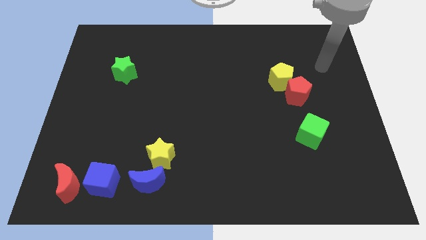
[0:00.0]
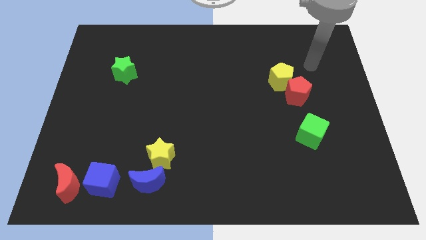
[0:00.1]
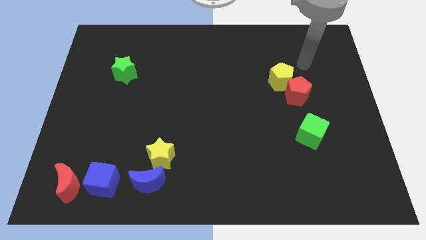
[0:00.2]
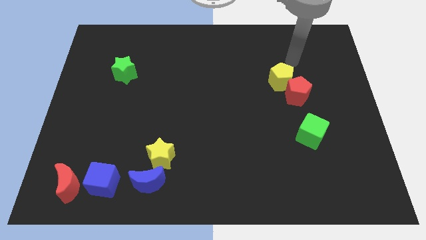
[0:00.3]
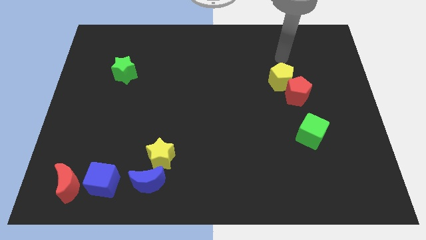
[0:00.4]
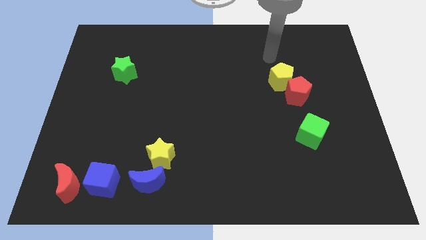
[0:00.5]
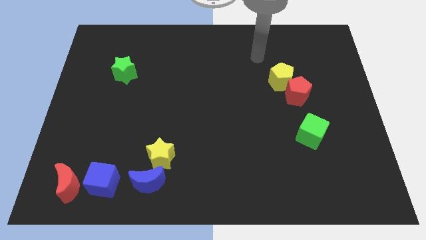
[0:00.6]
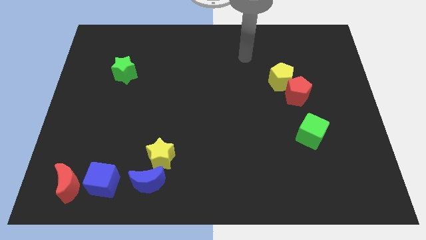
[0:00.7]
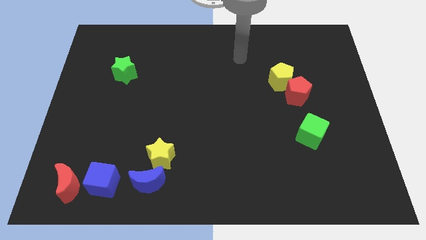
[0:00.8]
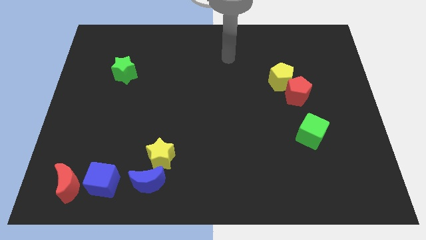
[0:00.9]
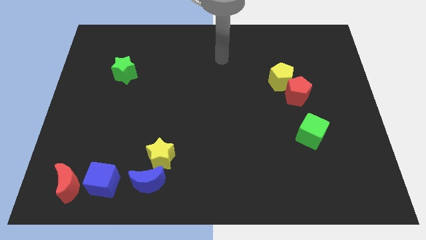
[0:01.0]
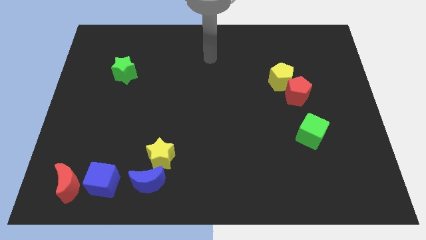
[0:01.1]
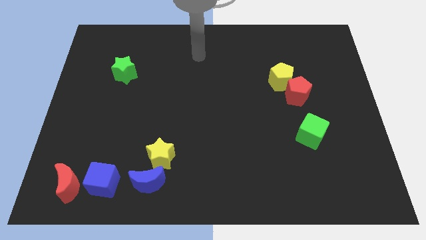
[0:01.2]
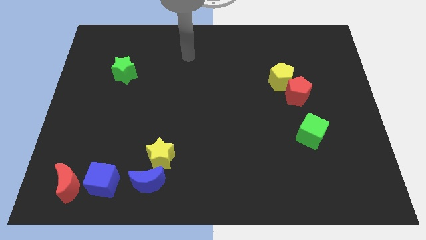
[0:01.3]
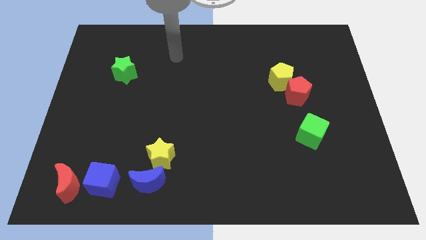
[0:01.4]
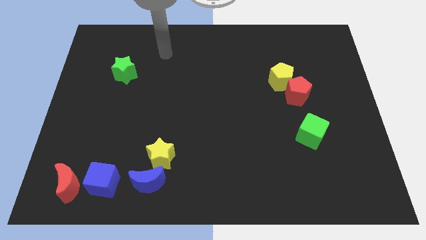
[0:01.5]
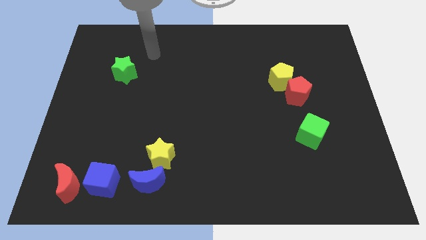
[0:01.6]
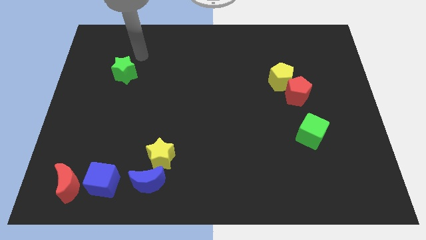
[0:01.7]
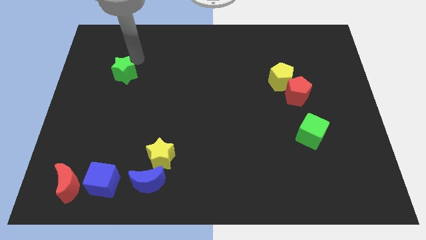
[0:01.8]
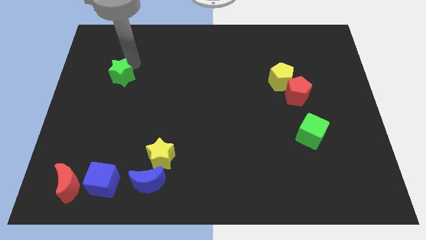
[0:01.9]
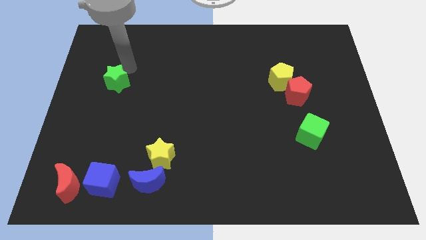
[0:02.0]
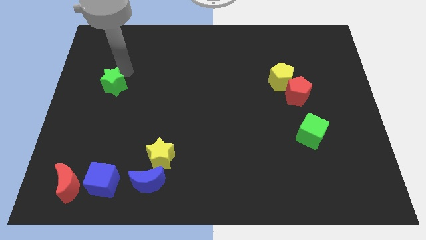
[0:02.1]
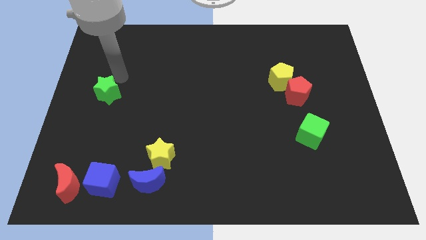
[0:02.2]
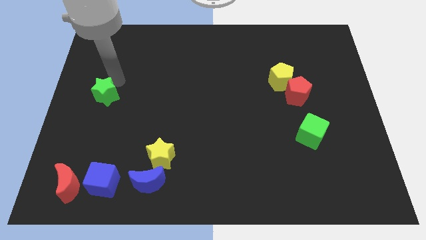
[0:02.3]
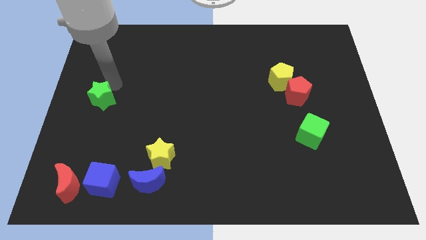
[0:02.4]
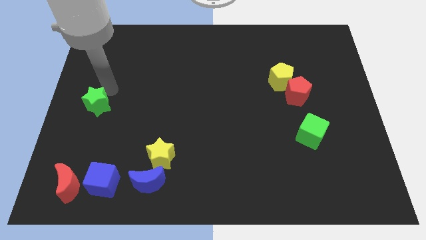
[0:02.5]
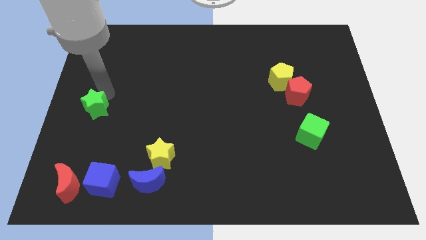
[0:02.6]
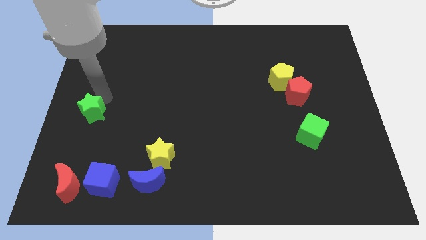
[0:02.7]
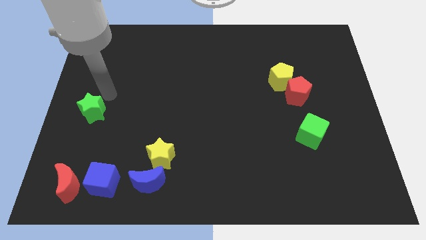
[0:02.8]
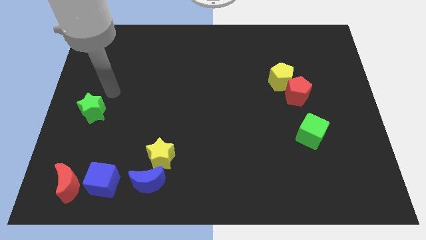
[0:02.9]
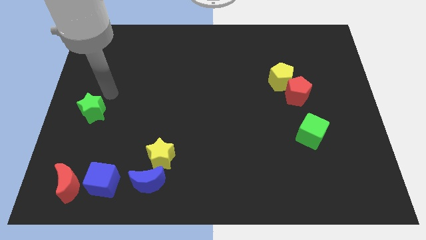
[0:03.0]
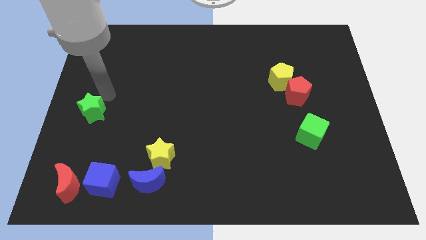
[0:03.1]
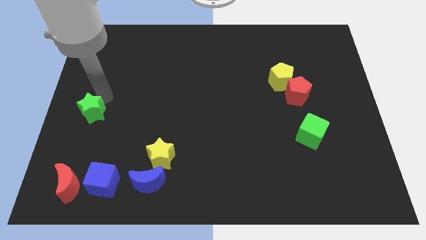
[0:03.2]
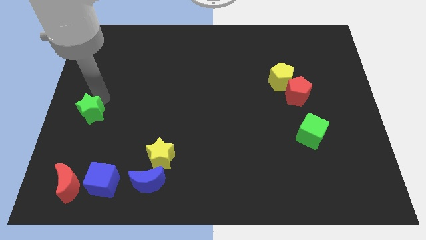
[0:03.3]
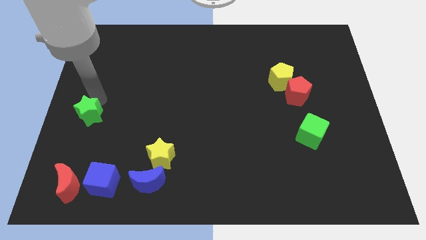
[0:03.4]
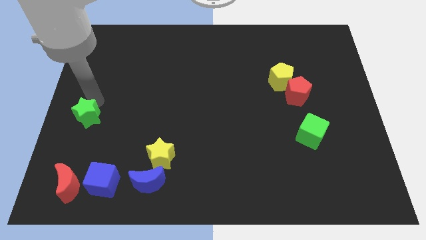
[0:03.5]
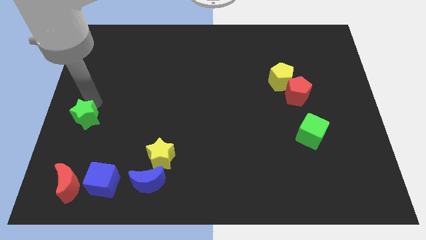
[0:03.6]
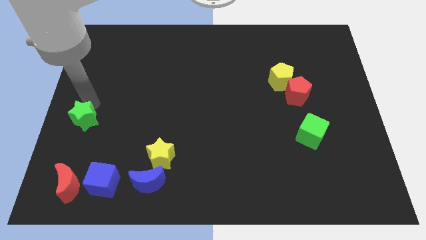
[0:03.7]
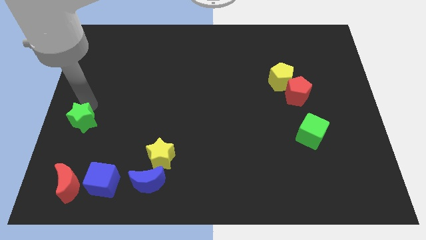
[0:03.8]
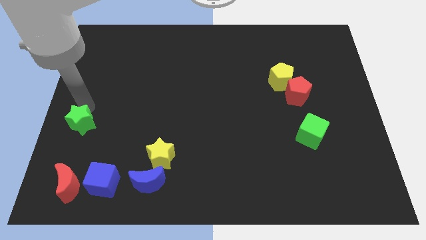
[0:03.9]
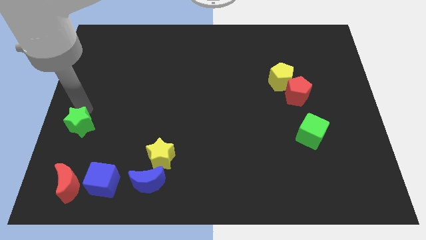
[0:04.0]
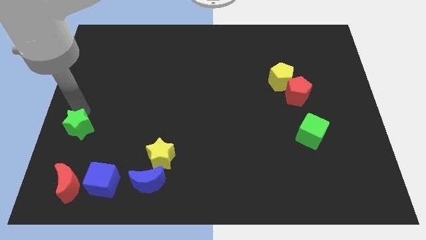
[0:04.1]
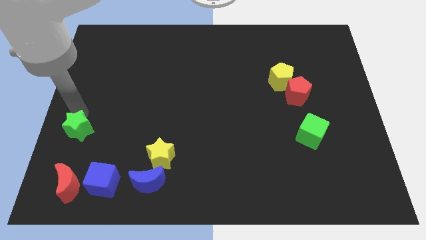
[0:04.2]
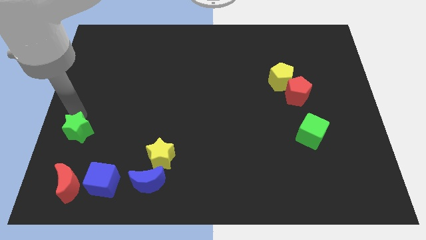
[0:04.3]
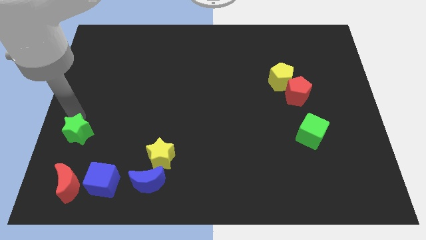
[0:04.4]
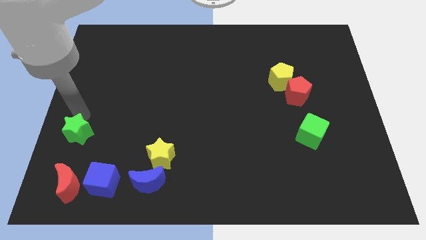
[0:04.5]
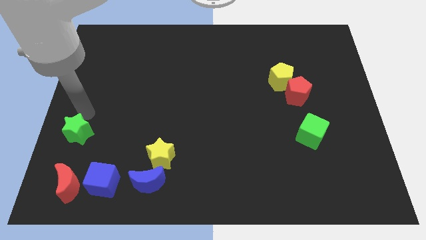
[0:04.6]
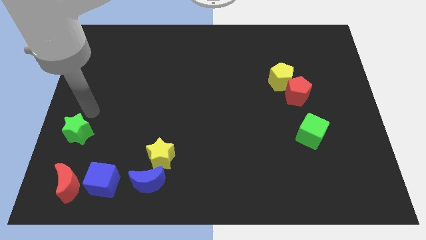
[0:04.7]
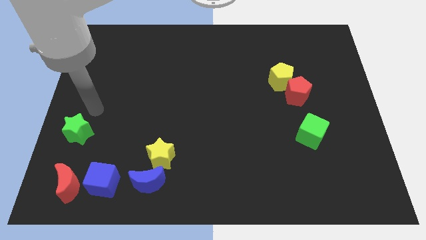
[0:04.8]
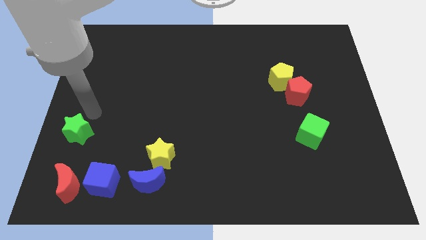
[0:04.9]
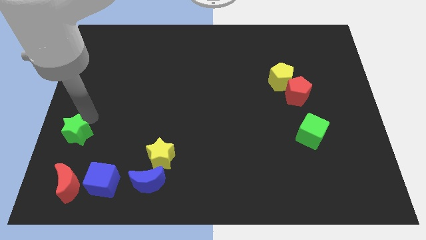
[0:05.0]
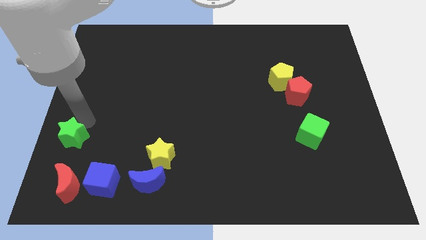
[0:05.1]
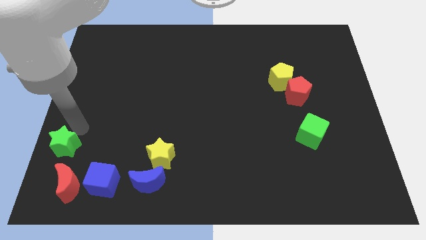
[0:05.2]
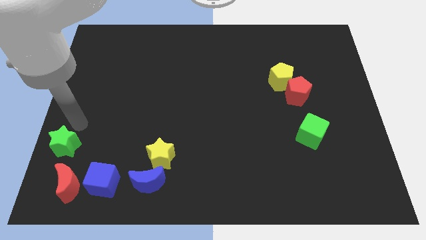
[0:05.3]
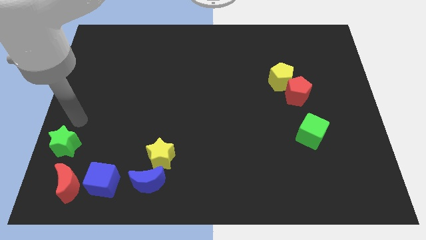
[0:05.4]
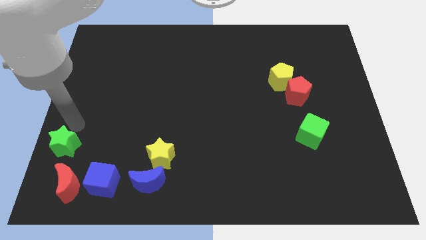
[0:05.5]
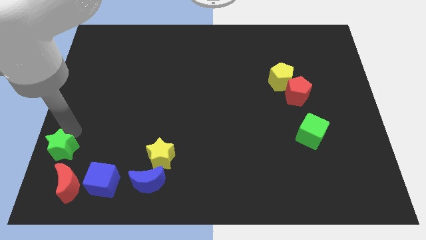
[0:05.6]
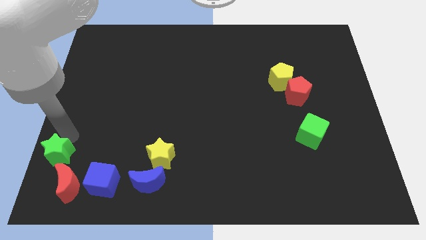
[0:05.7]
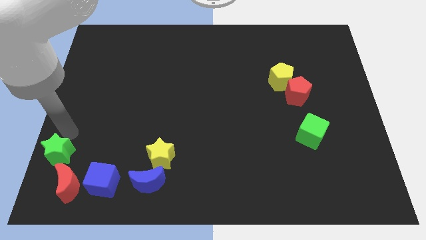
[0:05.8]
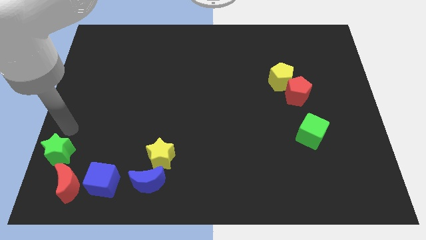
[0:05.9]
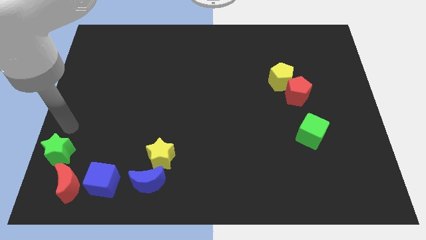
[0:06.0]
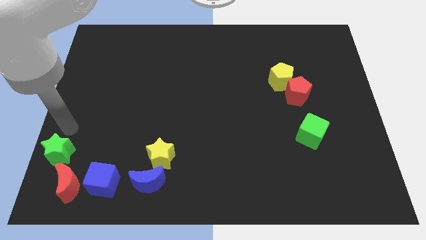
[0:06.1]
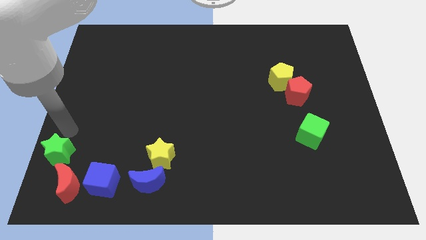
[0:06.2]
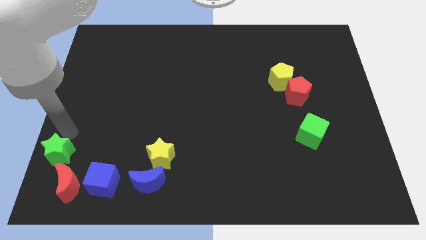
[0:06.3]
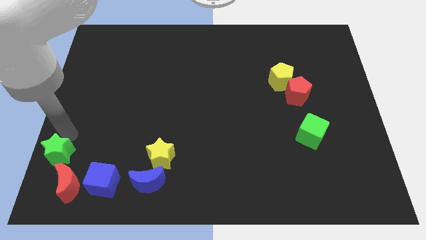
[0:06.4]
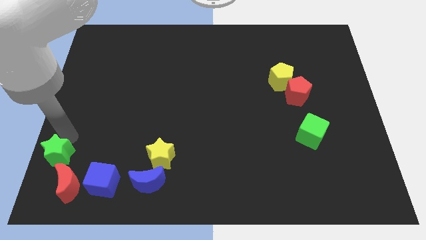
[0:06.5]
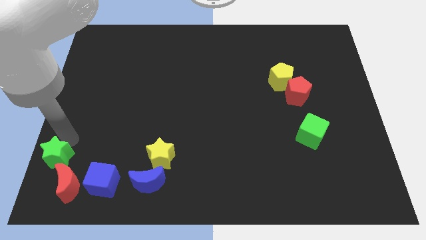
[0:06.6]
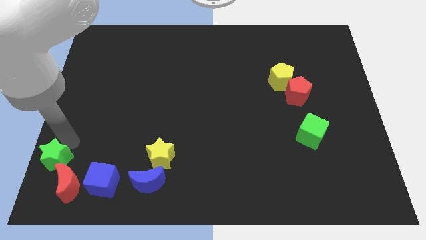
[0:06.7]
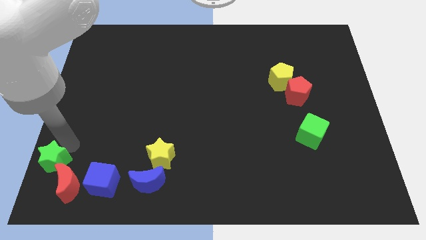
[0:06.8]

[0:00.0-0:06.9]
slide the green star to the bottom left corner

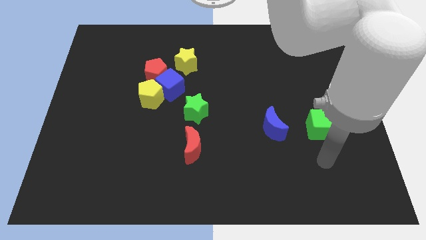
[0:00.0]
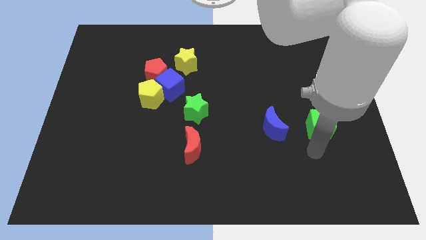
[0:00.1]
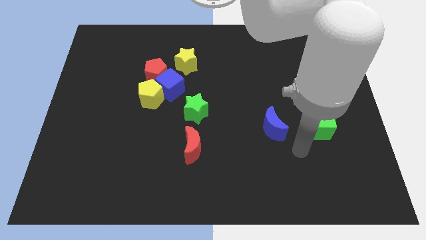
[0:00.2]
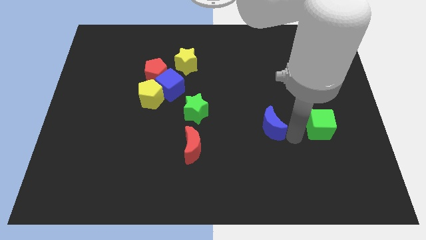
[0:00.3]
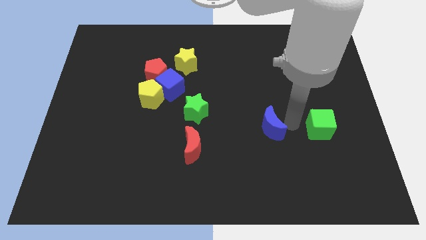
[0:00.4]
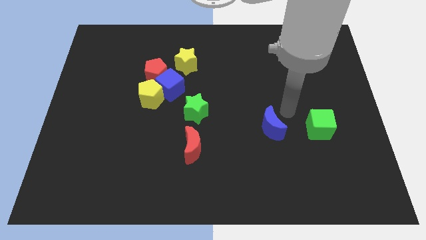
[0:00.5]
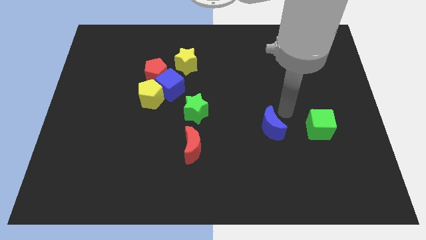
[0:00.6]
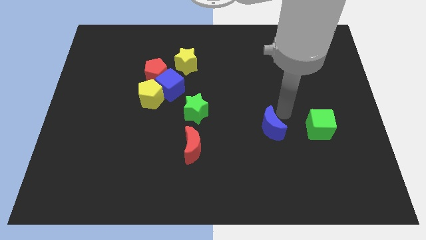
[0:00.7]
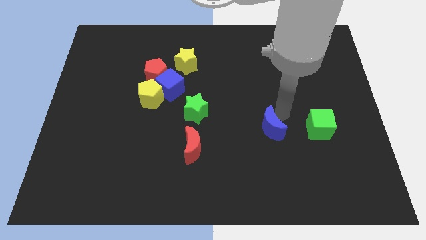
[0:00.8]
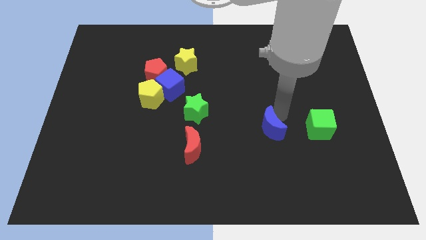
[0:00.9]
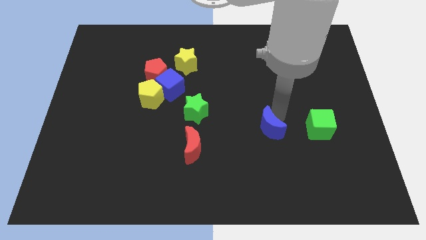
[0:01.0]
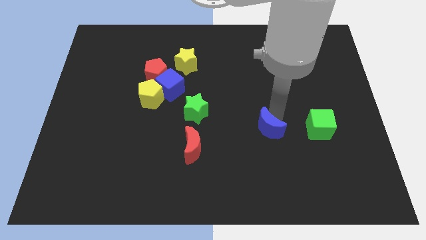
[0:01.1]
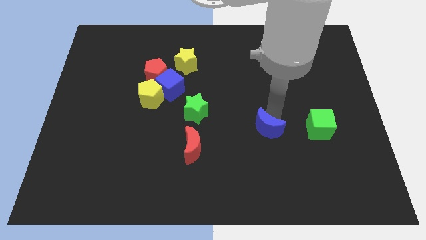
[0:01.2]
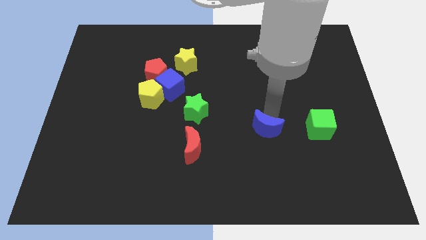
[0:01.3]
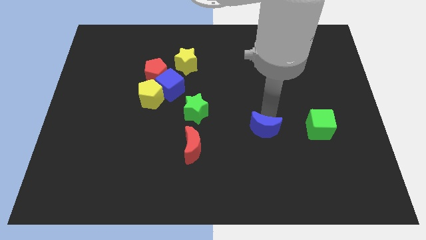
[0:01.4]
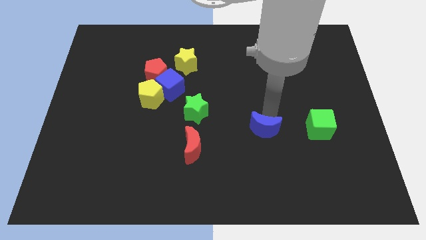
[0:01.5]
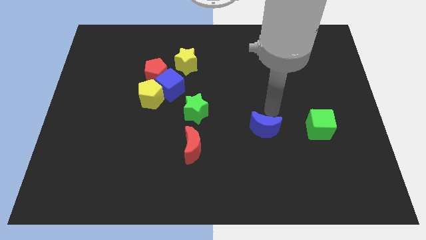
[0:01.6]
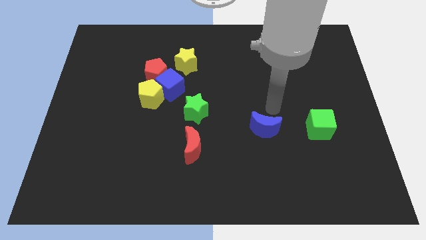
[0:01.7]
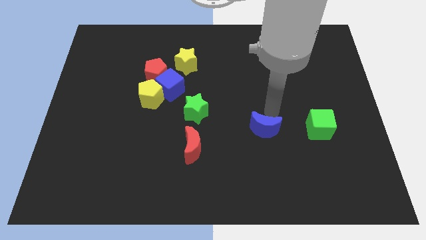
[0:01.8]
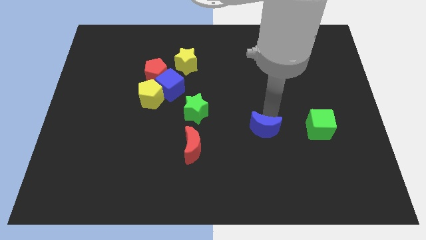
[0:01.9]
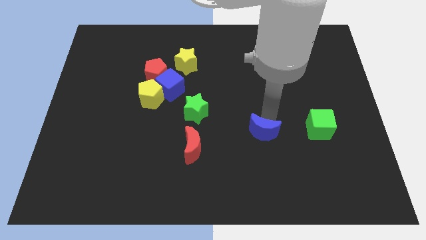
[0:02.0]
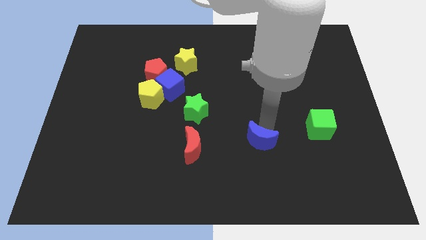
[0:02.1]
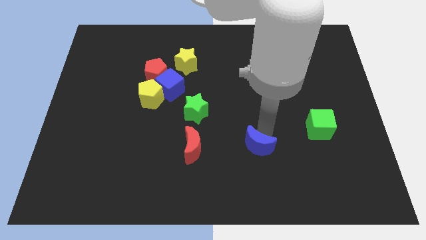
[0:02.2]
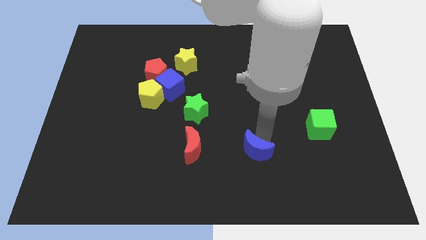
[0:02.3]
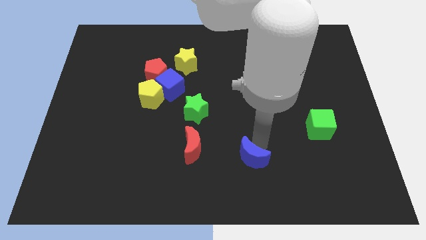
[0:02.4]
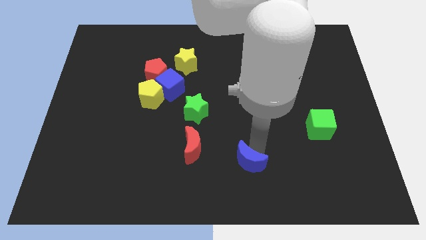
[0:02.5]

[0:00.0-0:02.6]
move the blue moon to the bottom side
